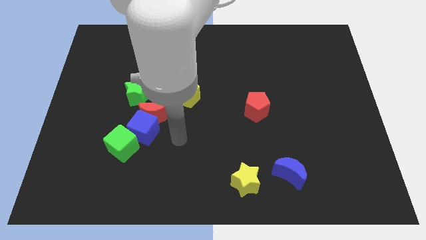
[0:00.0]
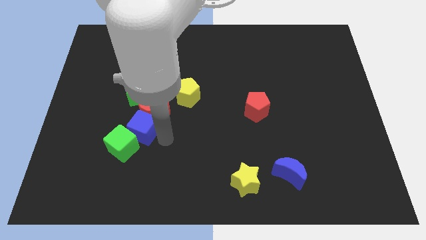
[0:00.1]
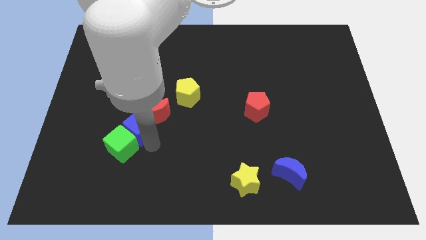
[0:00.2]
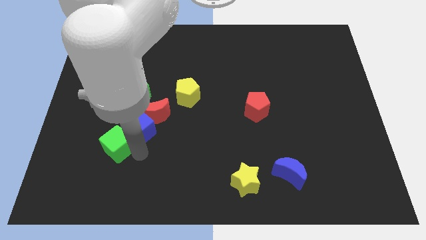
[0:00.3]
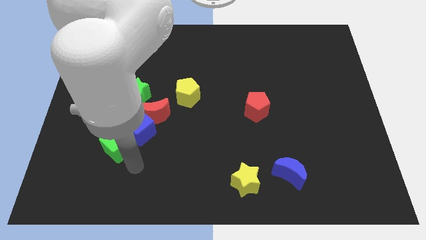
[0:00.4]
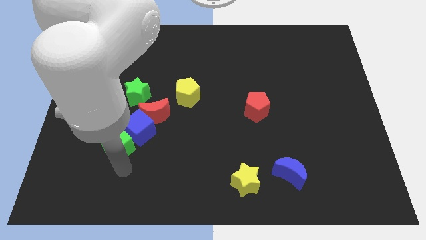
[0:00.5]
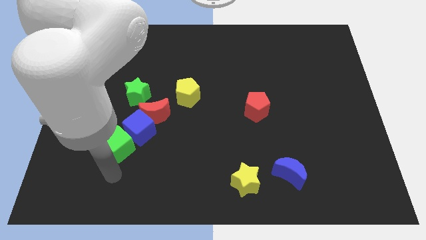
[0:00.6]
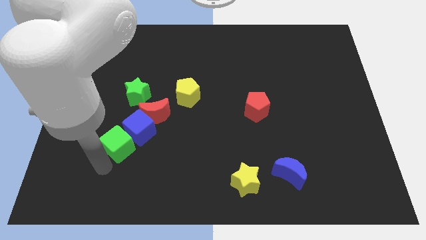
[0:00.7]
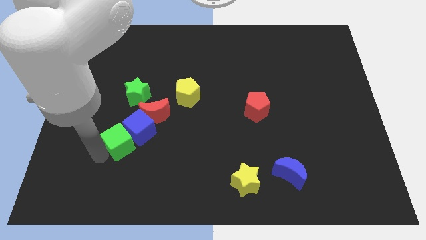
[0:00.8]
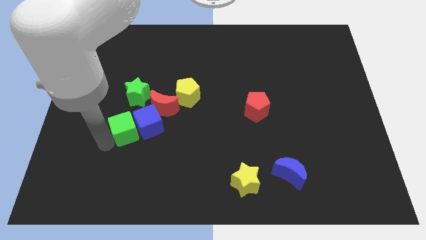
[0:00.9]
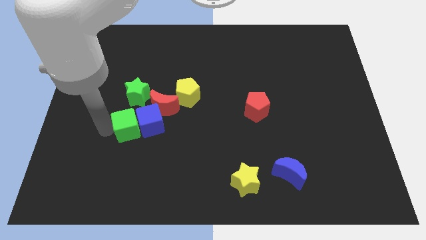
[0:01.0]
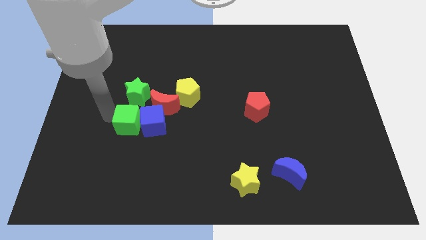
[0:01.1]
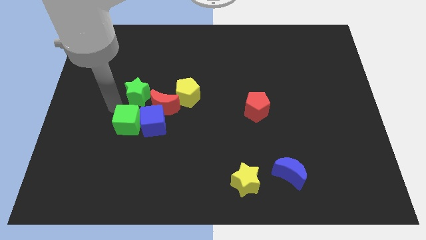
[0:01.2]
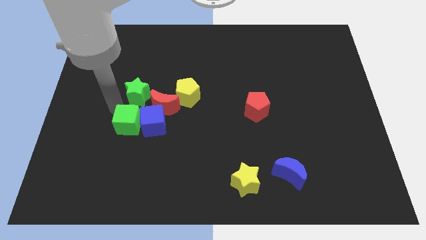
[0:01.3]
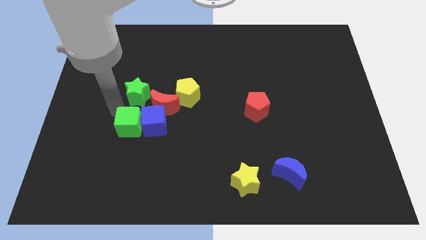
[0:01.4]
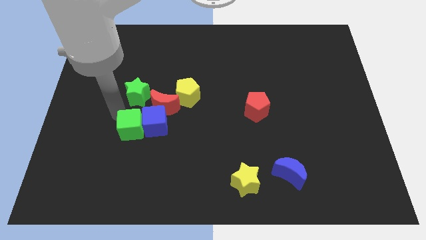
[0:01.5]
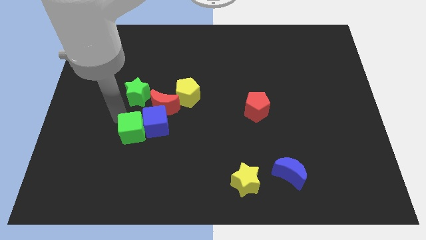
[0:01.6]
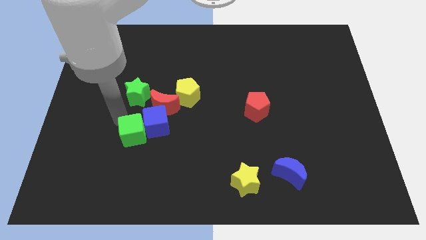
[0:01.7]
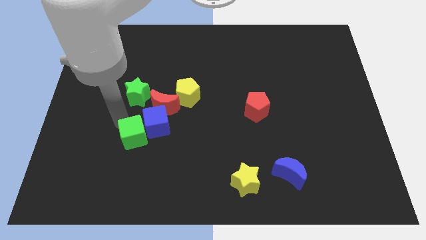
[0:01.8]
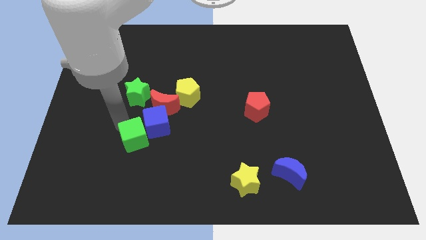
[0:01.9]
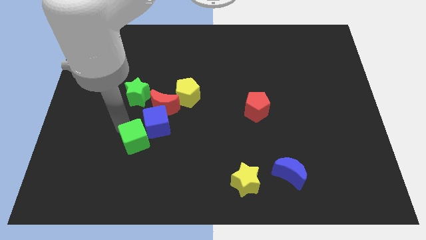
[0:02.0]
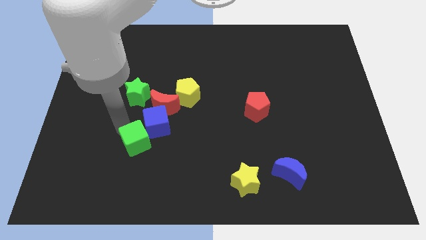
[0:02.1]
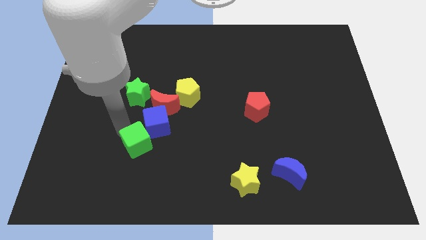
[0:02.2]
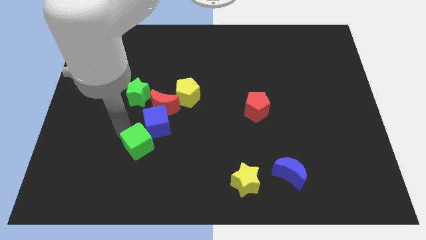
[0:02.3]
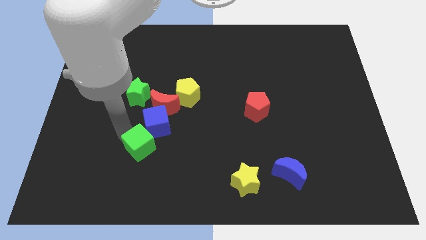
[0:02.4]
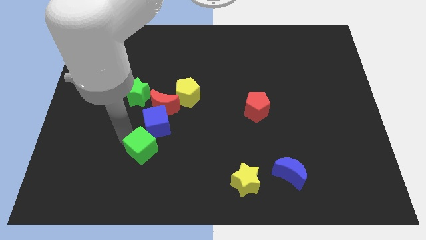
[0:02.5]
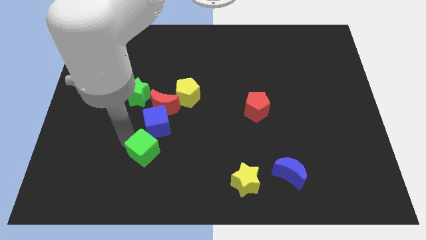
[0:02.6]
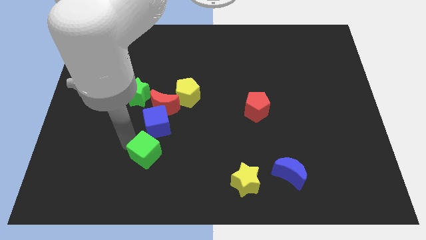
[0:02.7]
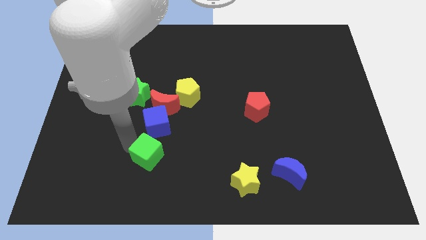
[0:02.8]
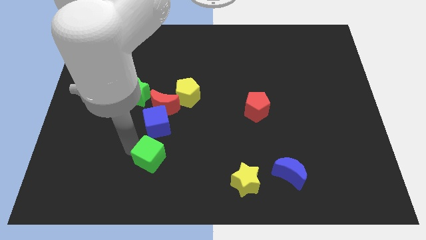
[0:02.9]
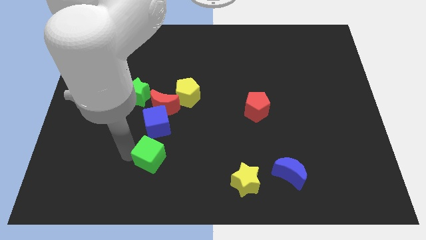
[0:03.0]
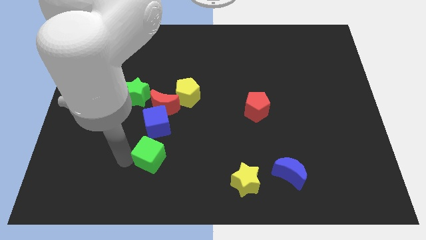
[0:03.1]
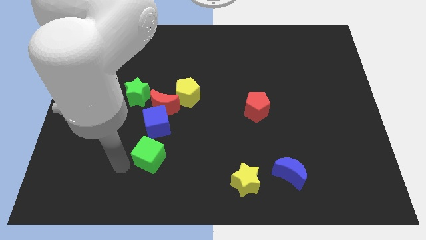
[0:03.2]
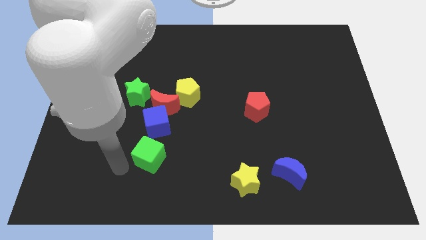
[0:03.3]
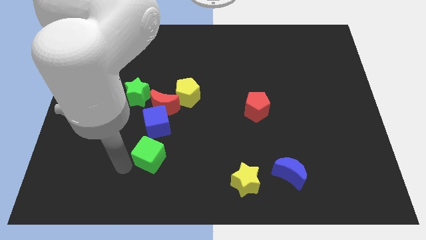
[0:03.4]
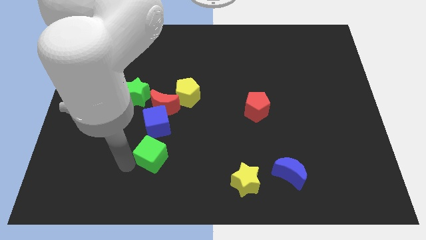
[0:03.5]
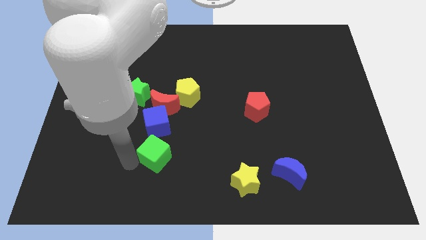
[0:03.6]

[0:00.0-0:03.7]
slightly move the green cube to the right

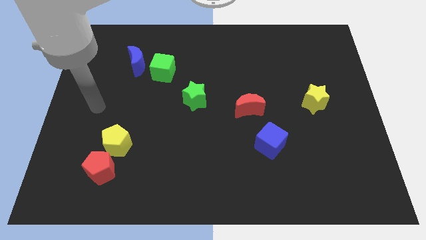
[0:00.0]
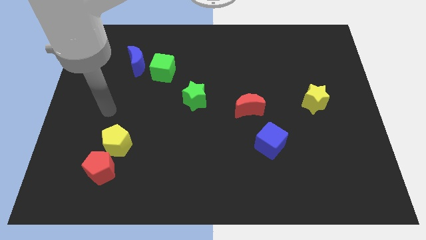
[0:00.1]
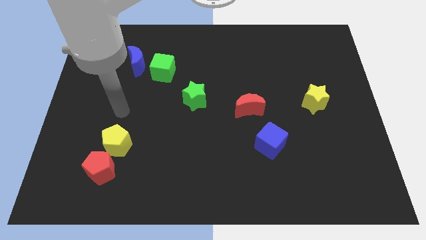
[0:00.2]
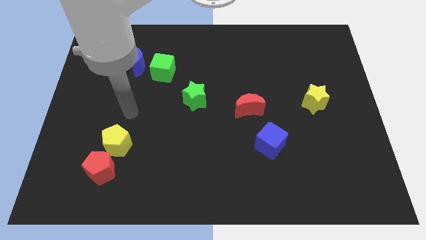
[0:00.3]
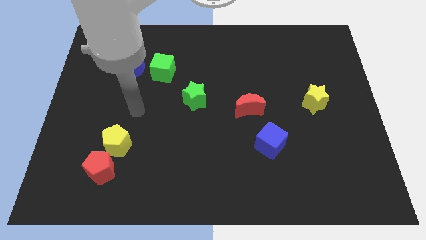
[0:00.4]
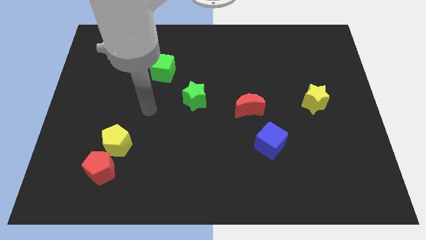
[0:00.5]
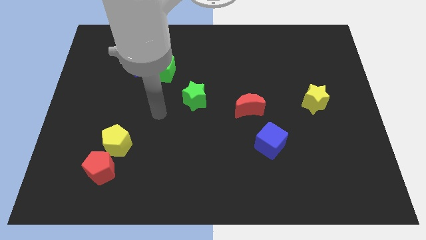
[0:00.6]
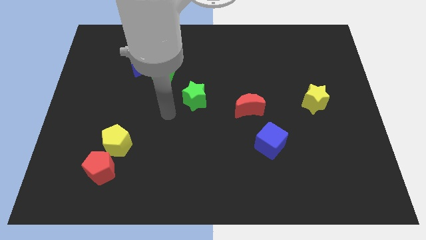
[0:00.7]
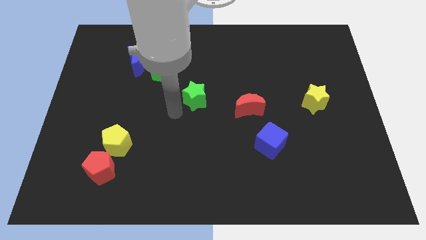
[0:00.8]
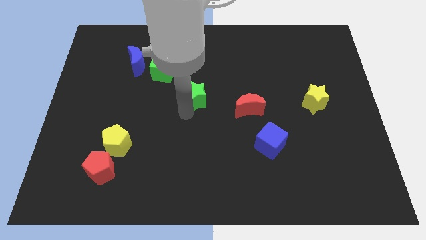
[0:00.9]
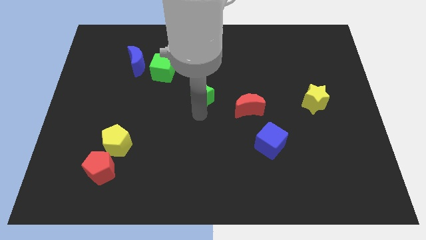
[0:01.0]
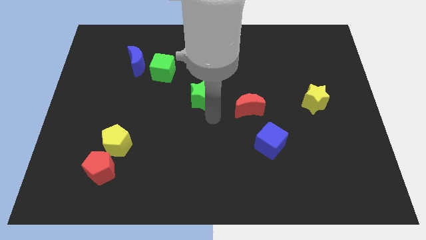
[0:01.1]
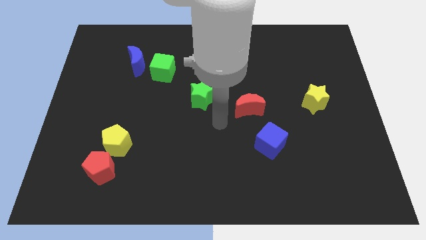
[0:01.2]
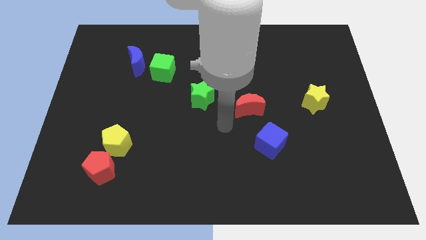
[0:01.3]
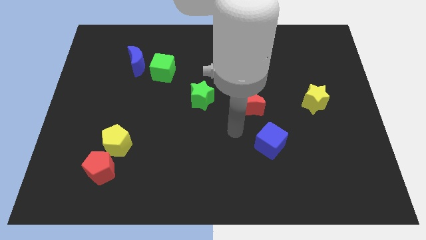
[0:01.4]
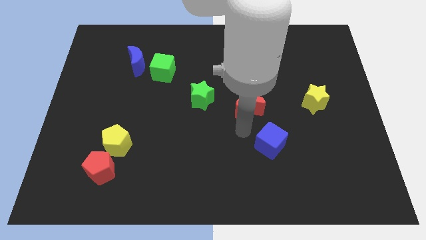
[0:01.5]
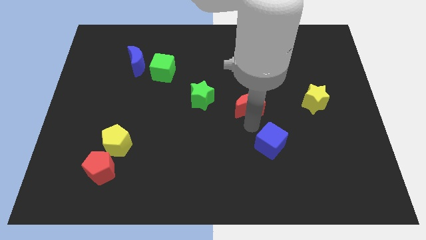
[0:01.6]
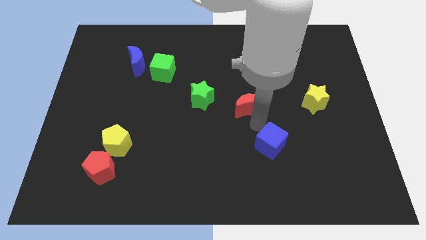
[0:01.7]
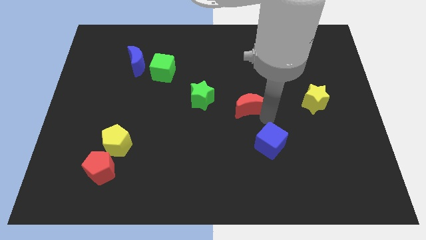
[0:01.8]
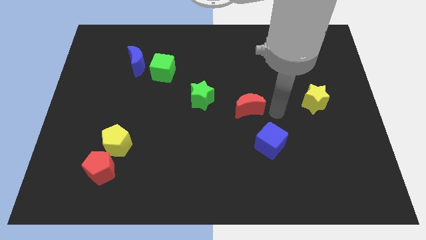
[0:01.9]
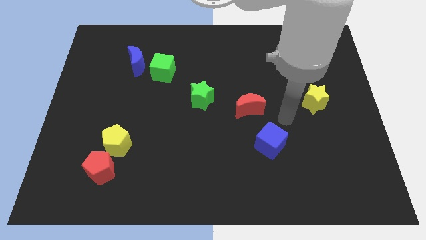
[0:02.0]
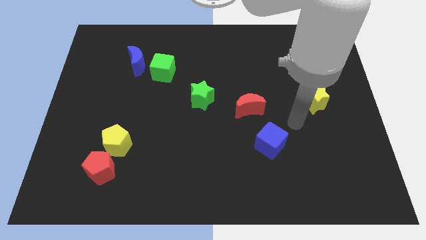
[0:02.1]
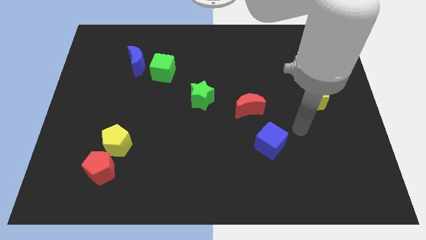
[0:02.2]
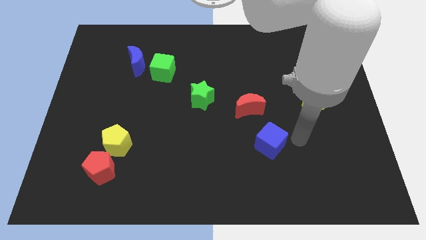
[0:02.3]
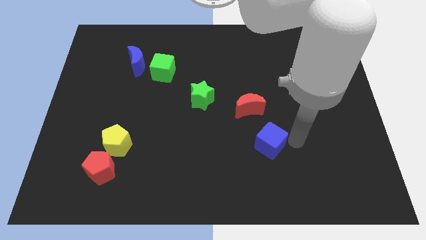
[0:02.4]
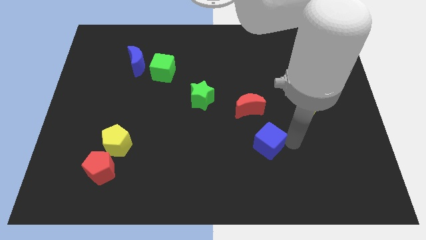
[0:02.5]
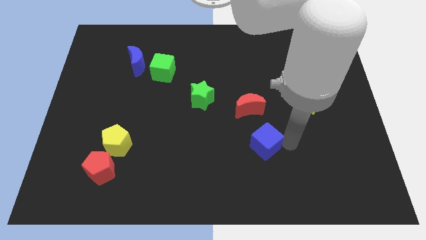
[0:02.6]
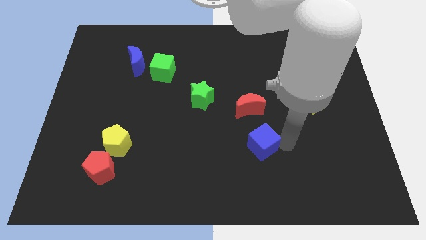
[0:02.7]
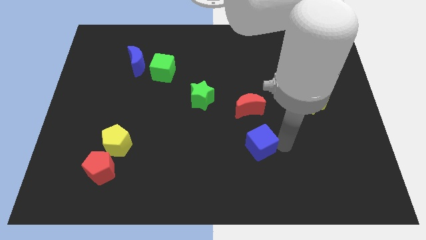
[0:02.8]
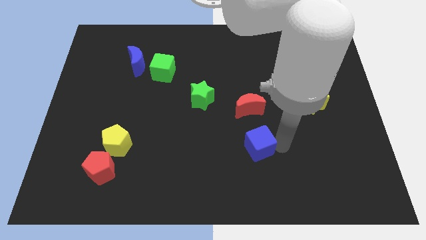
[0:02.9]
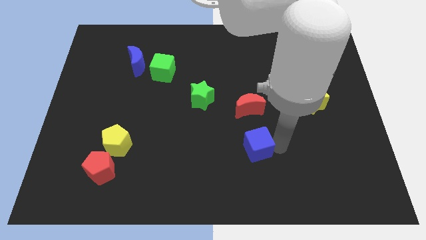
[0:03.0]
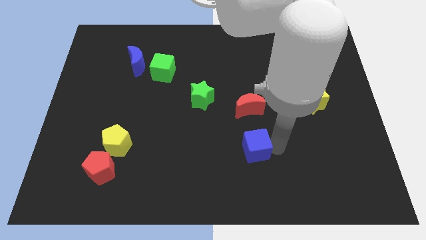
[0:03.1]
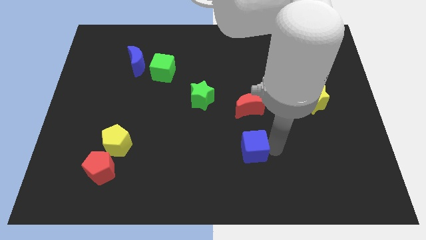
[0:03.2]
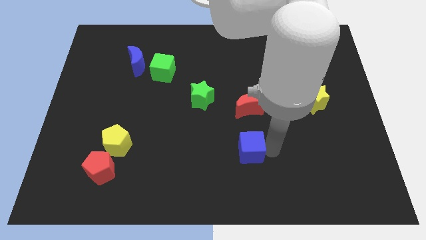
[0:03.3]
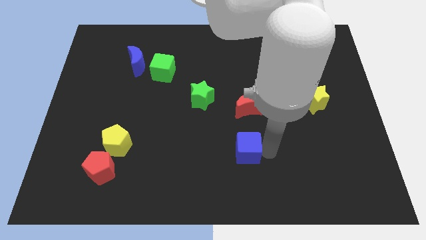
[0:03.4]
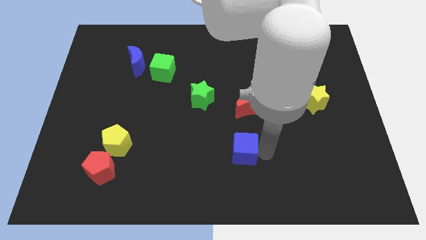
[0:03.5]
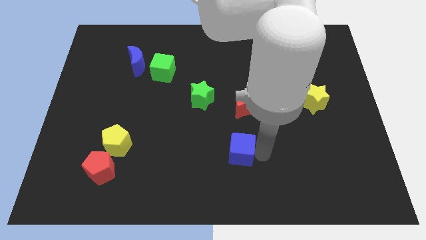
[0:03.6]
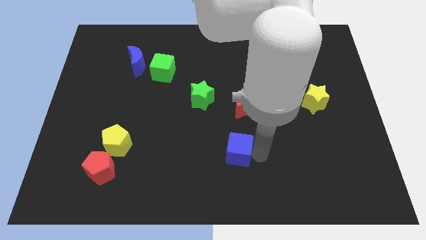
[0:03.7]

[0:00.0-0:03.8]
slide the blue cube a bit left

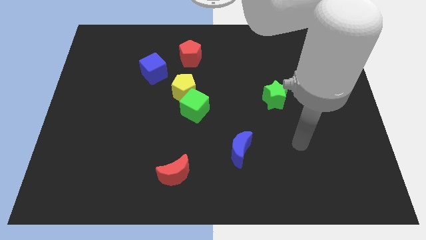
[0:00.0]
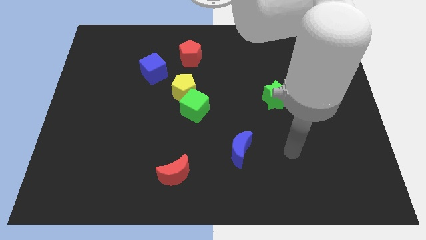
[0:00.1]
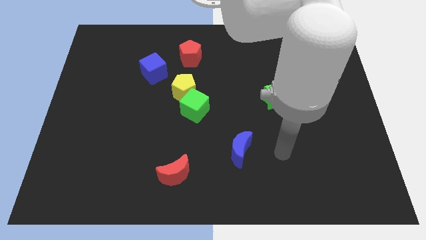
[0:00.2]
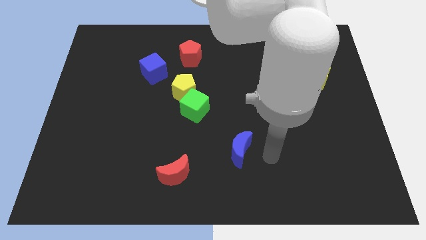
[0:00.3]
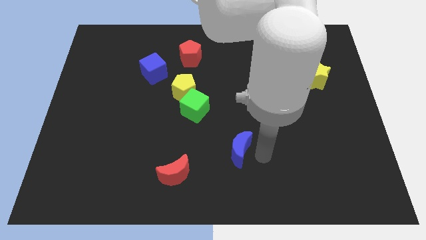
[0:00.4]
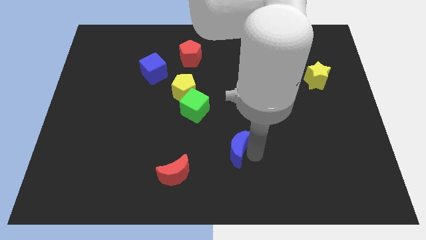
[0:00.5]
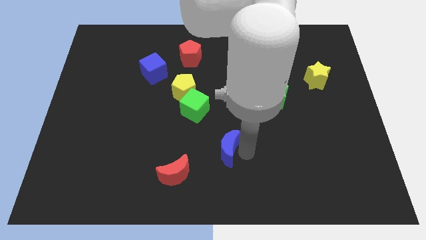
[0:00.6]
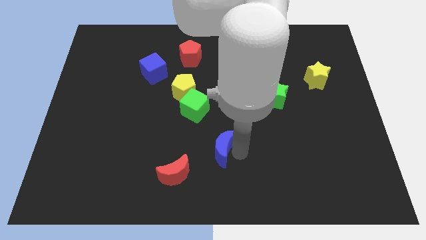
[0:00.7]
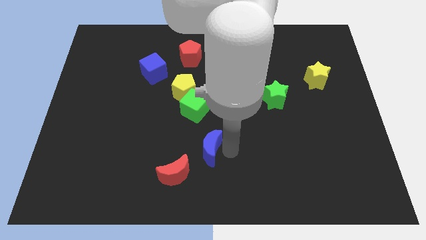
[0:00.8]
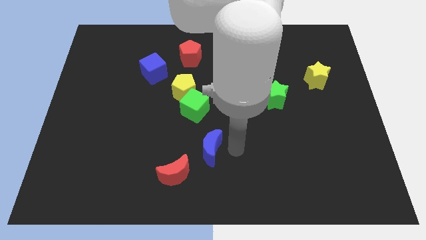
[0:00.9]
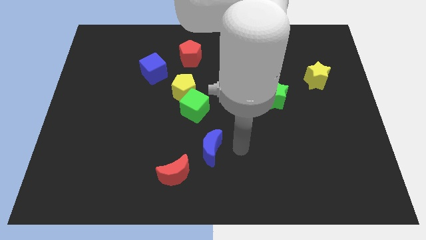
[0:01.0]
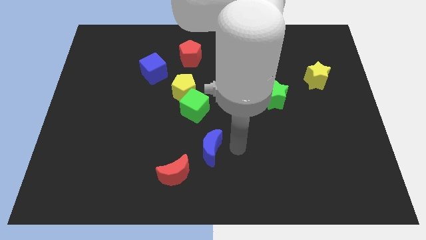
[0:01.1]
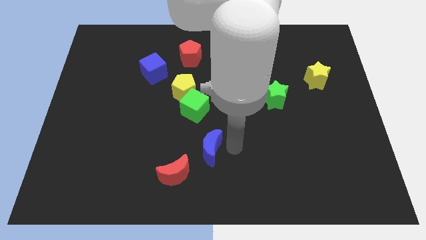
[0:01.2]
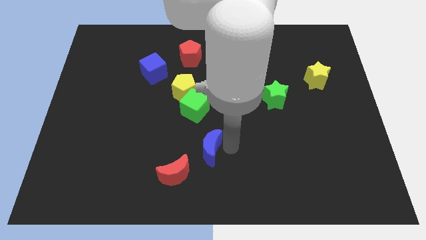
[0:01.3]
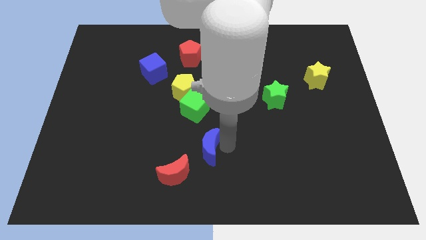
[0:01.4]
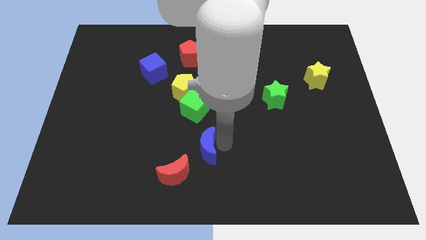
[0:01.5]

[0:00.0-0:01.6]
slightly slide the blue moon left
